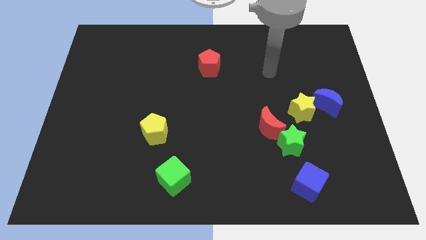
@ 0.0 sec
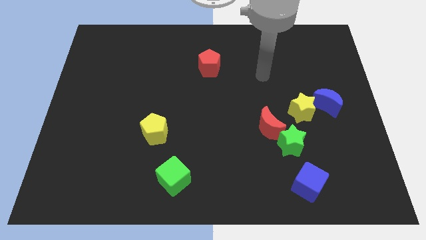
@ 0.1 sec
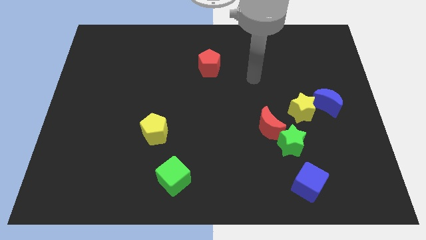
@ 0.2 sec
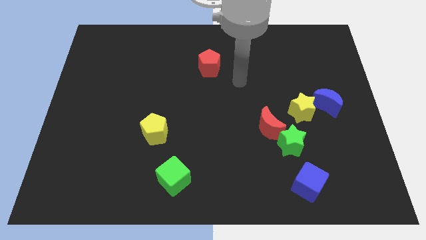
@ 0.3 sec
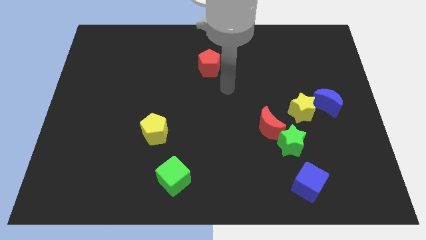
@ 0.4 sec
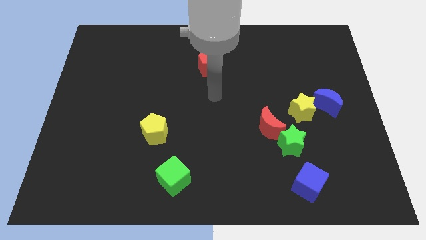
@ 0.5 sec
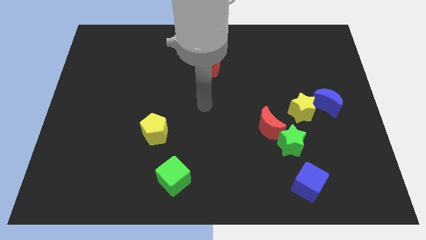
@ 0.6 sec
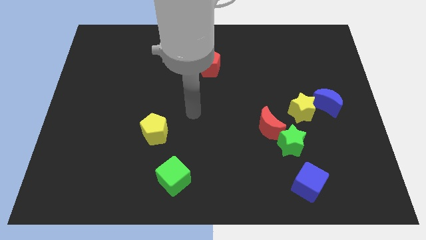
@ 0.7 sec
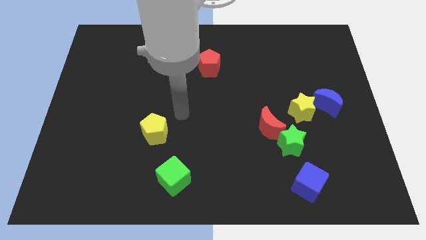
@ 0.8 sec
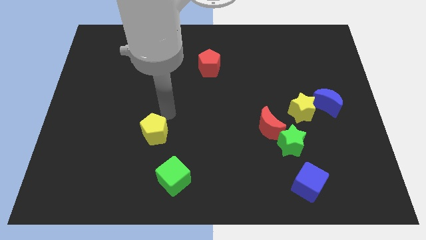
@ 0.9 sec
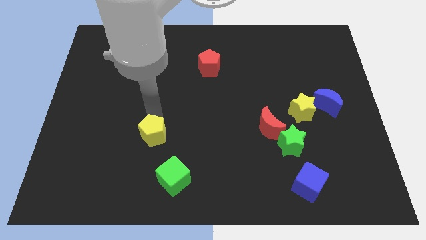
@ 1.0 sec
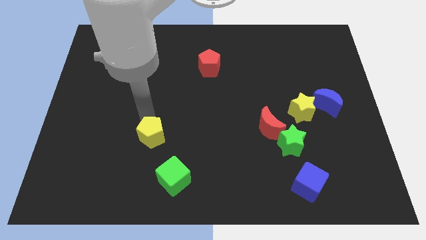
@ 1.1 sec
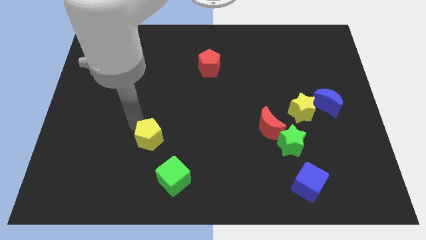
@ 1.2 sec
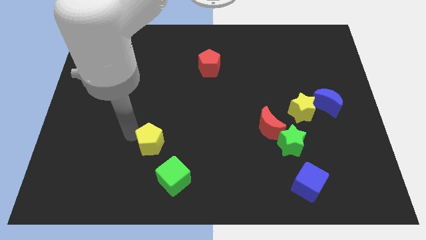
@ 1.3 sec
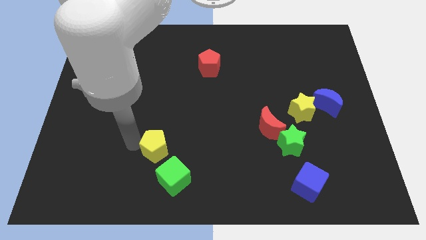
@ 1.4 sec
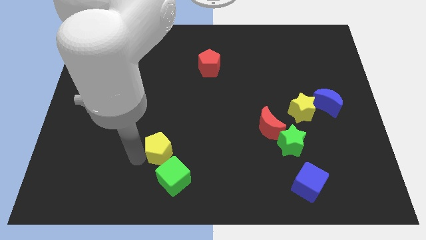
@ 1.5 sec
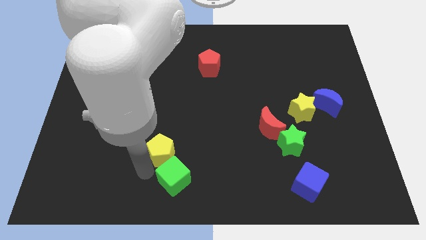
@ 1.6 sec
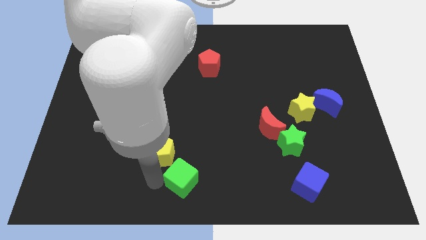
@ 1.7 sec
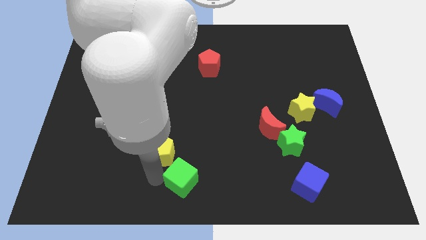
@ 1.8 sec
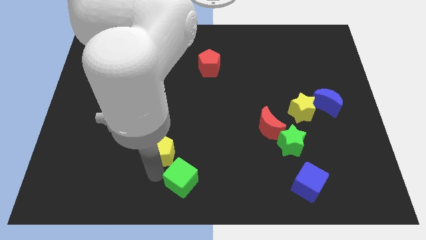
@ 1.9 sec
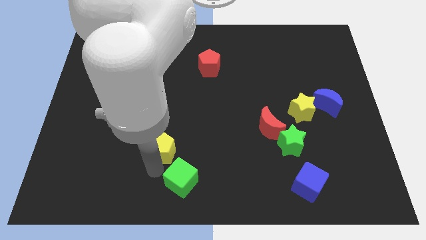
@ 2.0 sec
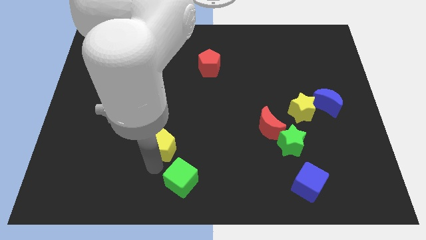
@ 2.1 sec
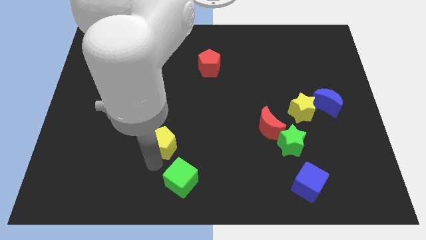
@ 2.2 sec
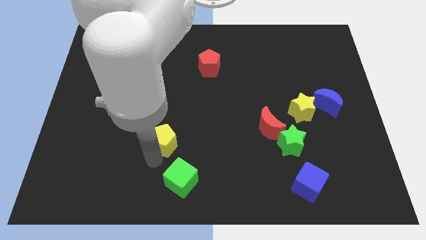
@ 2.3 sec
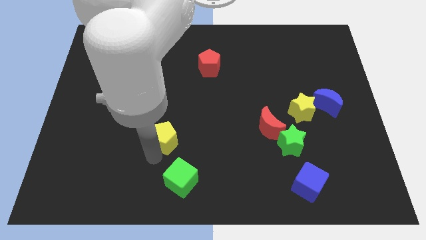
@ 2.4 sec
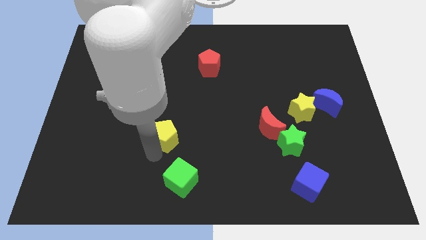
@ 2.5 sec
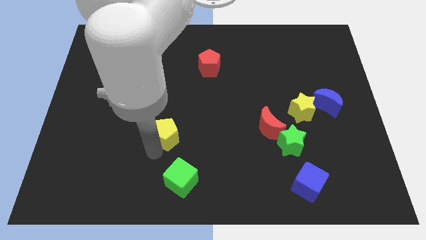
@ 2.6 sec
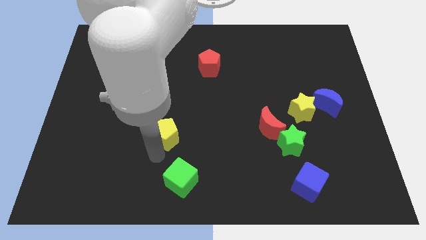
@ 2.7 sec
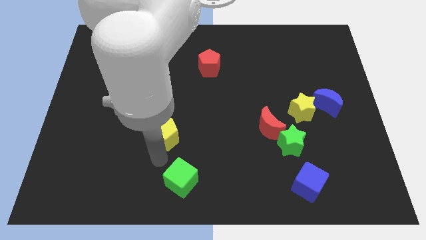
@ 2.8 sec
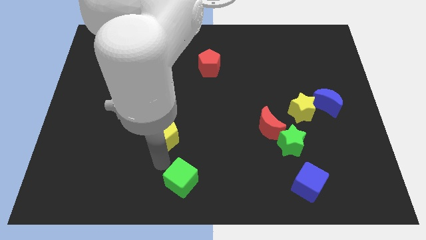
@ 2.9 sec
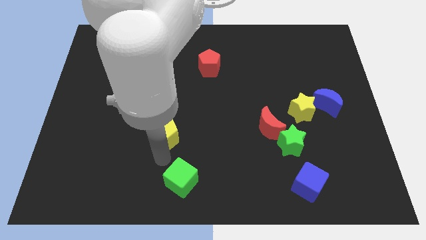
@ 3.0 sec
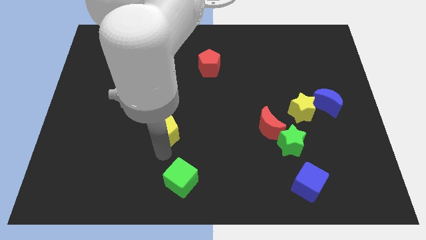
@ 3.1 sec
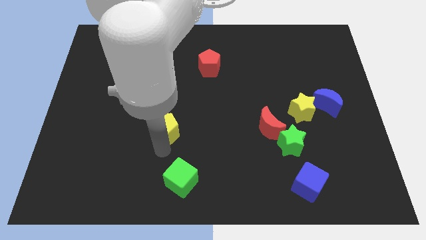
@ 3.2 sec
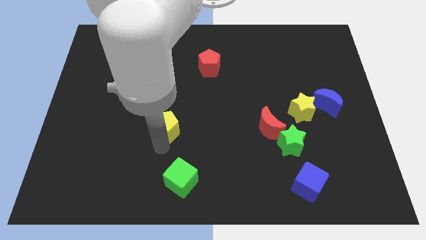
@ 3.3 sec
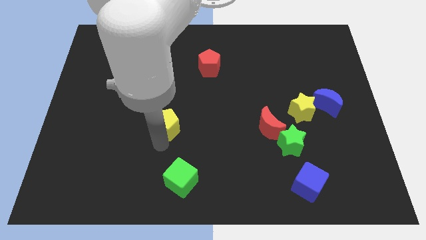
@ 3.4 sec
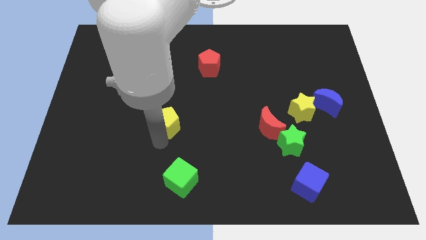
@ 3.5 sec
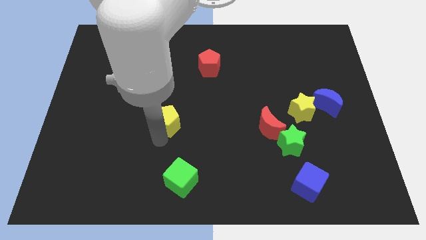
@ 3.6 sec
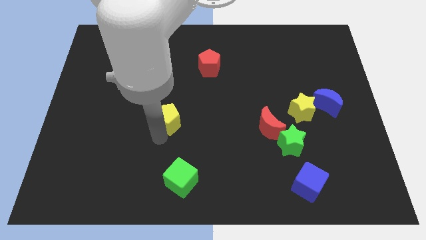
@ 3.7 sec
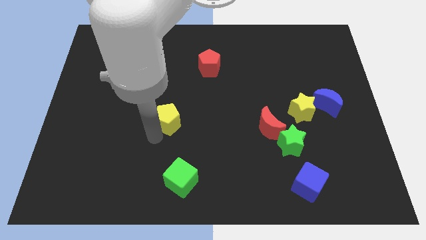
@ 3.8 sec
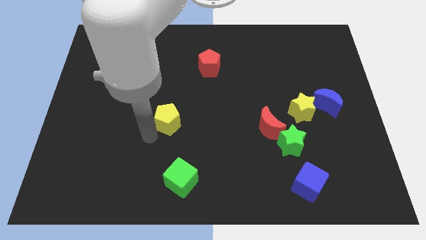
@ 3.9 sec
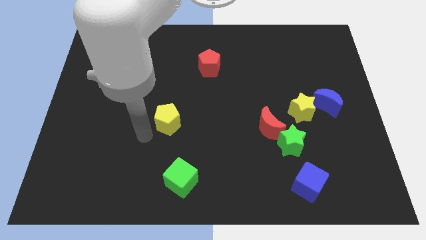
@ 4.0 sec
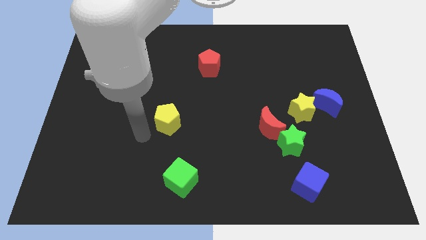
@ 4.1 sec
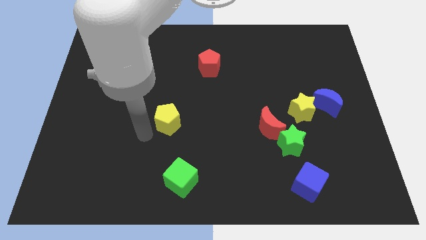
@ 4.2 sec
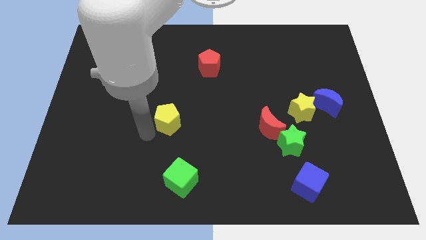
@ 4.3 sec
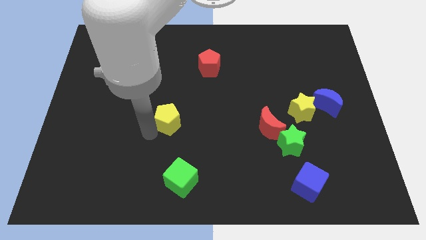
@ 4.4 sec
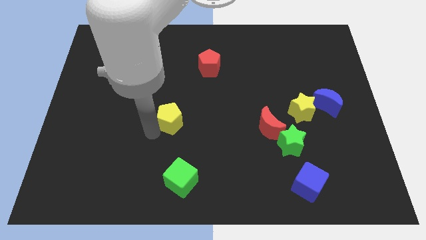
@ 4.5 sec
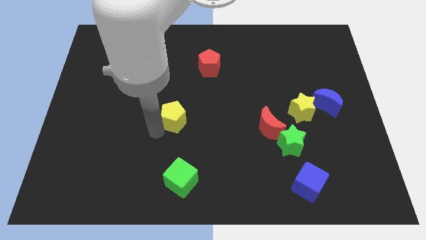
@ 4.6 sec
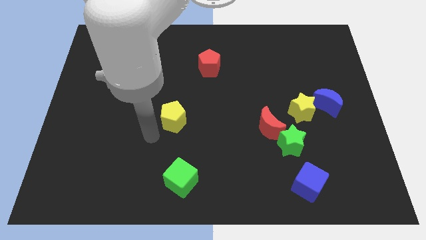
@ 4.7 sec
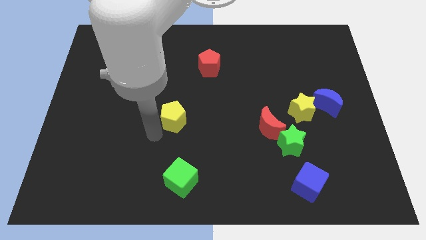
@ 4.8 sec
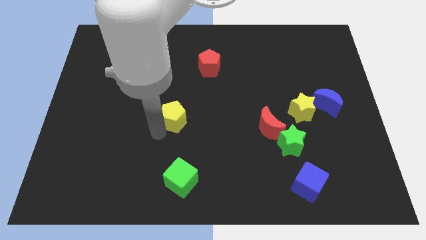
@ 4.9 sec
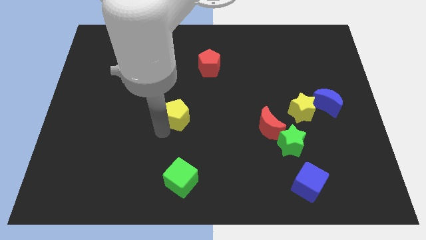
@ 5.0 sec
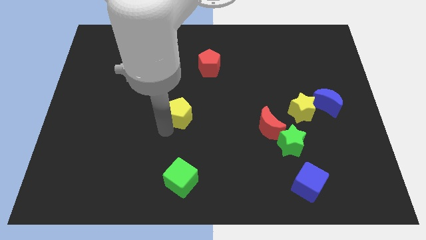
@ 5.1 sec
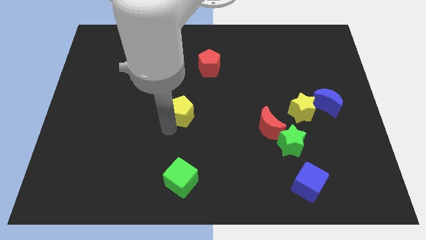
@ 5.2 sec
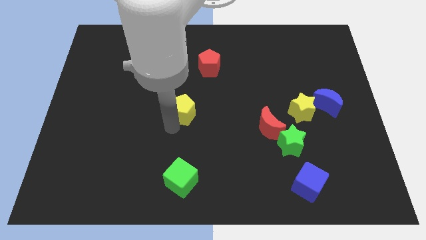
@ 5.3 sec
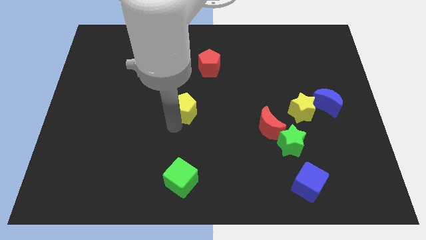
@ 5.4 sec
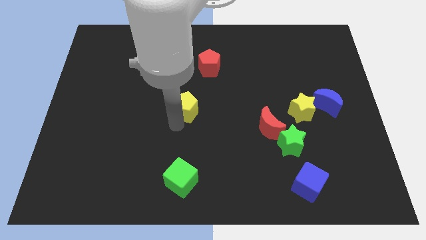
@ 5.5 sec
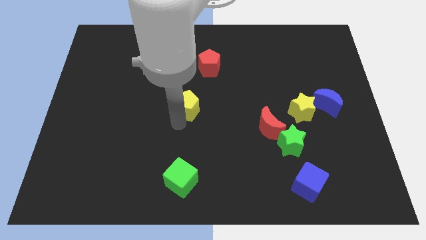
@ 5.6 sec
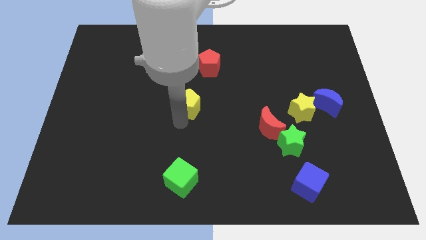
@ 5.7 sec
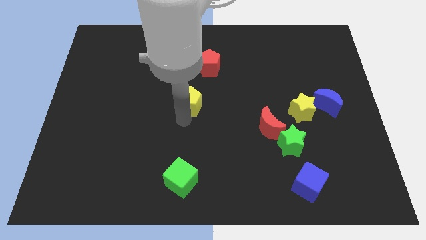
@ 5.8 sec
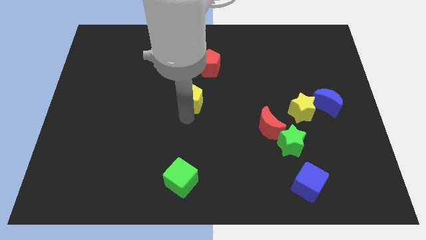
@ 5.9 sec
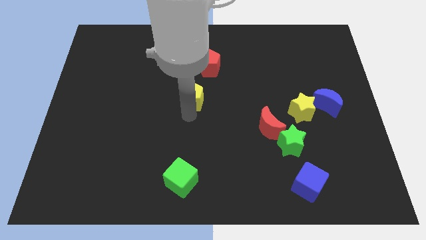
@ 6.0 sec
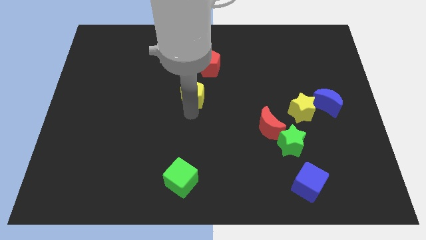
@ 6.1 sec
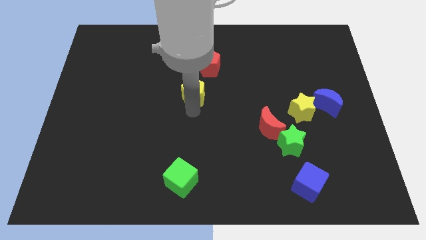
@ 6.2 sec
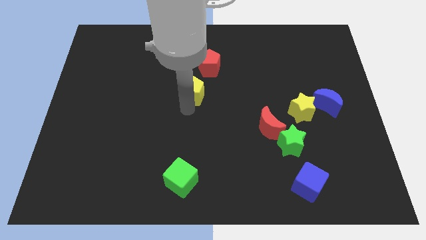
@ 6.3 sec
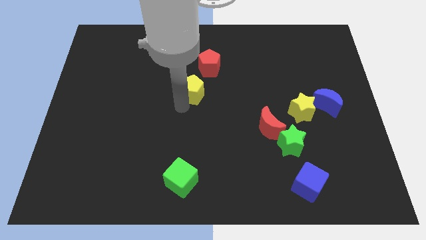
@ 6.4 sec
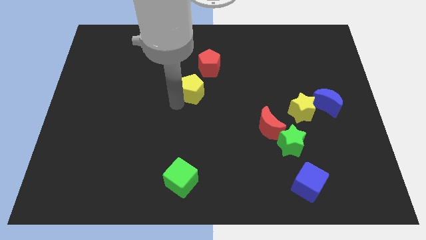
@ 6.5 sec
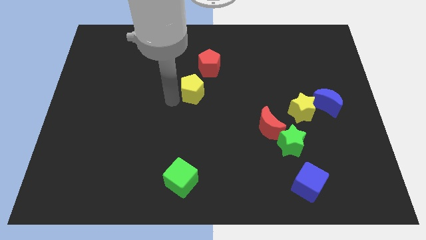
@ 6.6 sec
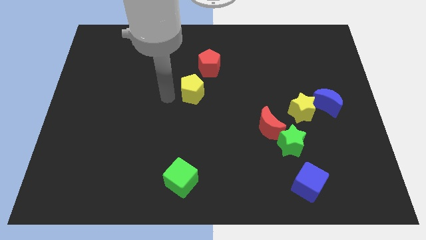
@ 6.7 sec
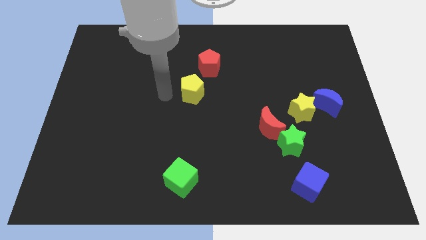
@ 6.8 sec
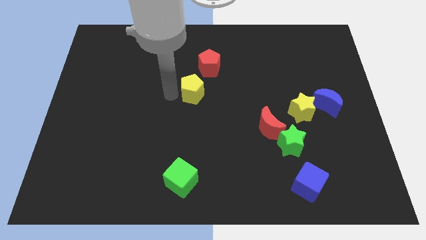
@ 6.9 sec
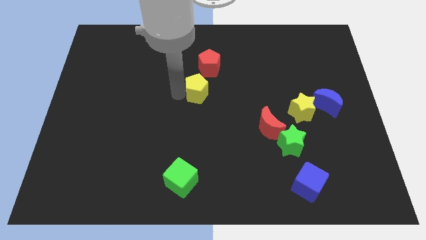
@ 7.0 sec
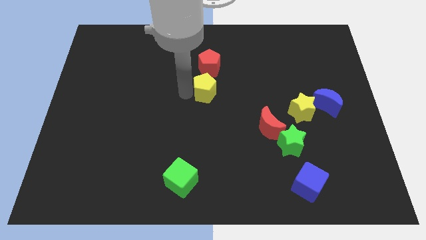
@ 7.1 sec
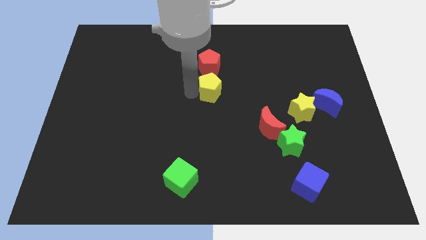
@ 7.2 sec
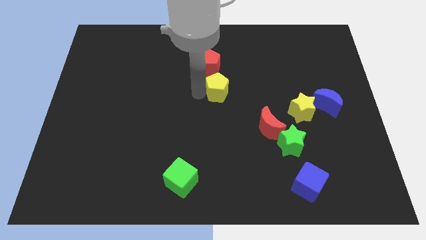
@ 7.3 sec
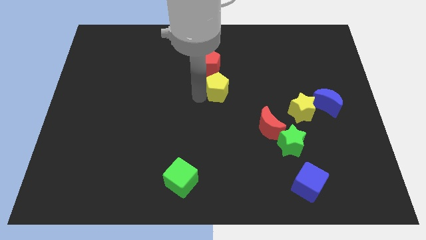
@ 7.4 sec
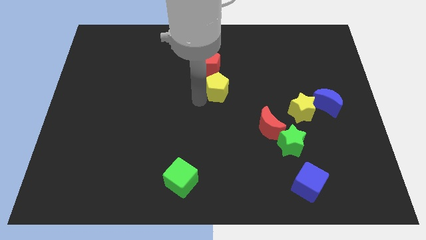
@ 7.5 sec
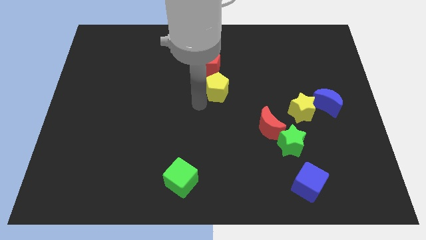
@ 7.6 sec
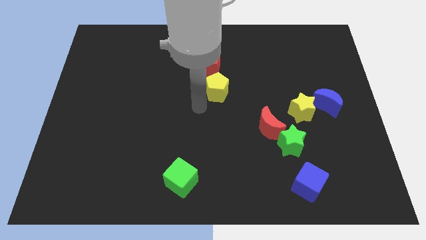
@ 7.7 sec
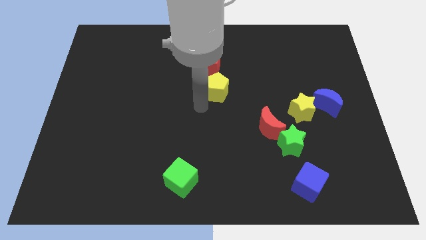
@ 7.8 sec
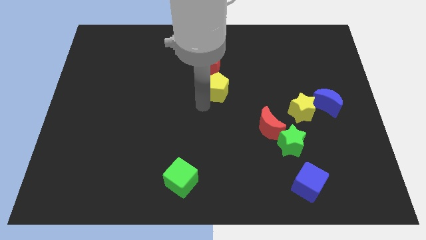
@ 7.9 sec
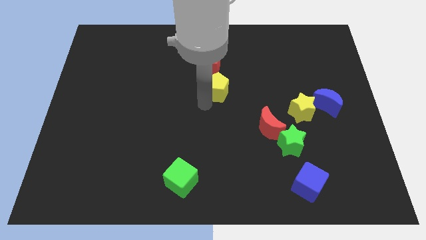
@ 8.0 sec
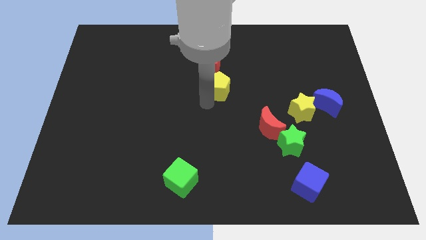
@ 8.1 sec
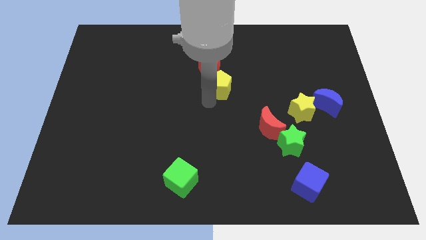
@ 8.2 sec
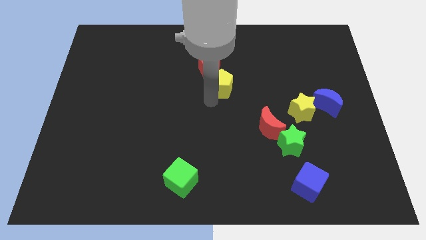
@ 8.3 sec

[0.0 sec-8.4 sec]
move the yellow pentagon diagonally upwards and right
